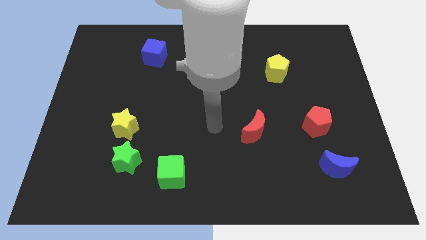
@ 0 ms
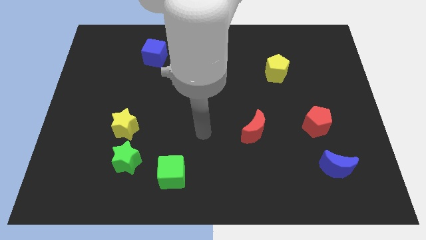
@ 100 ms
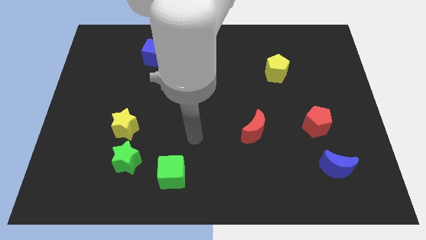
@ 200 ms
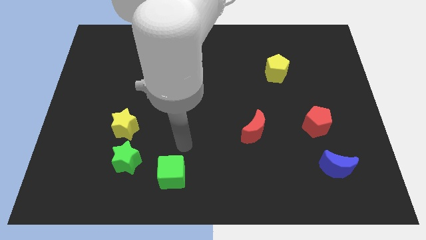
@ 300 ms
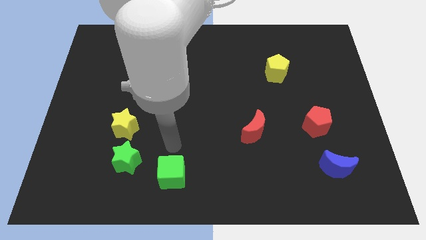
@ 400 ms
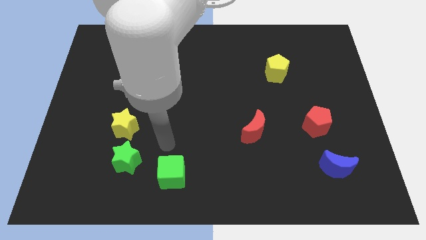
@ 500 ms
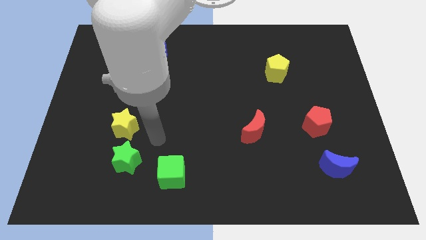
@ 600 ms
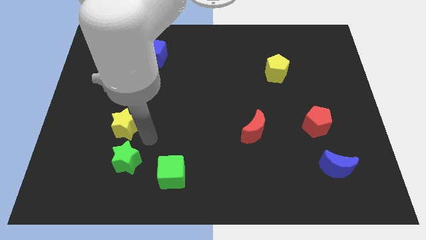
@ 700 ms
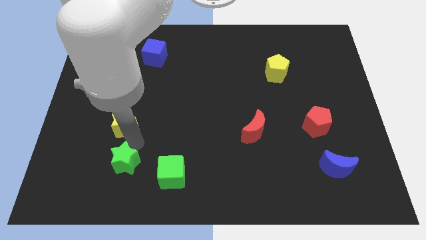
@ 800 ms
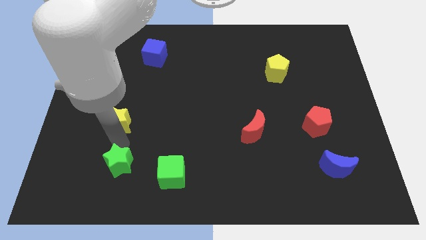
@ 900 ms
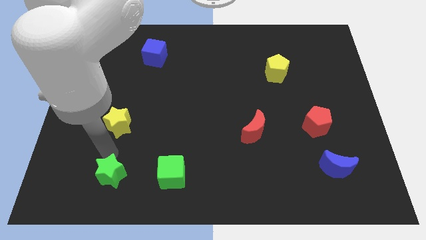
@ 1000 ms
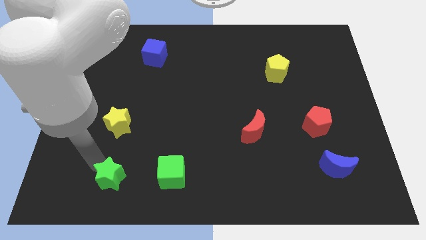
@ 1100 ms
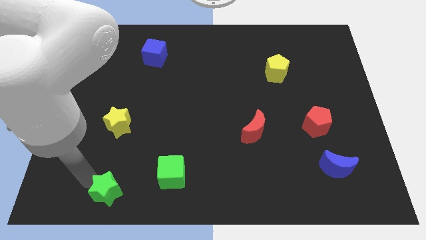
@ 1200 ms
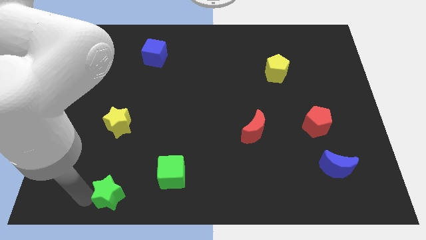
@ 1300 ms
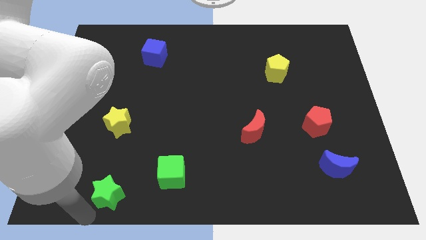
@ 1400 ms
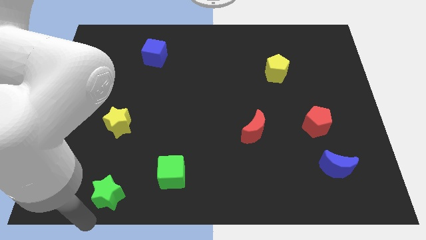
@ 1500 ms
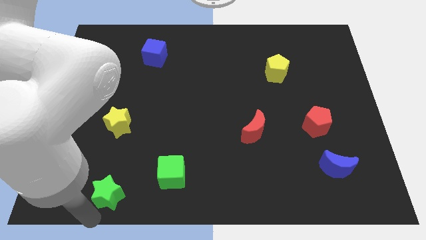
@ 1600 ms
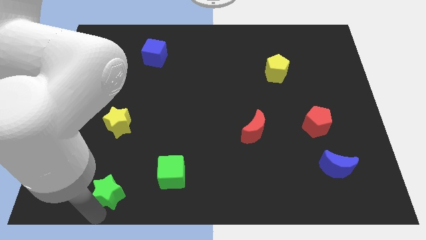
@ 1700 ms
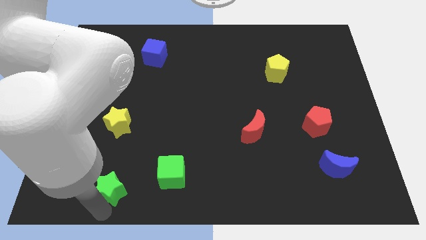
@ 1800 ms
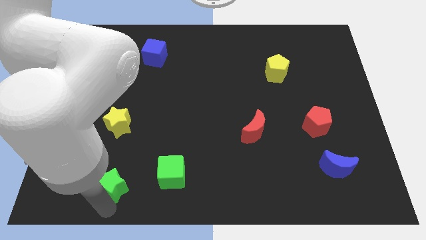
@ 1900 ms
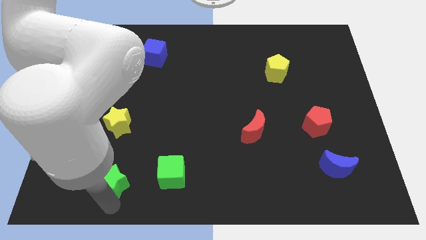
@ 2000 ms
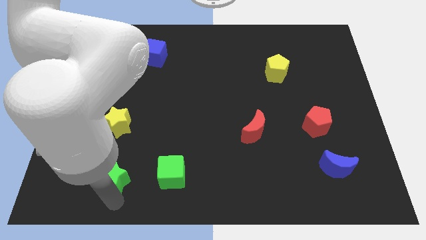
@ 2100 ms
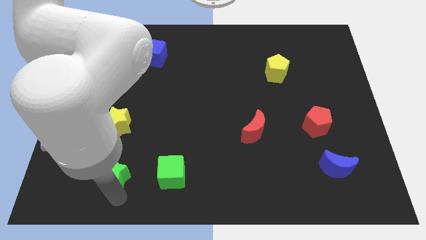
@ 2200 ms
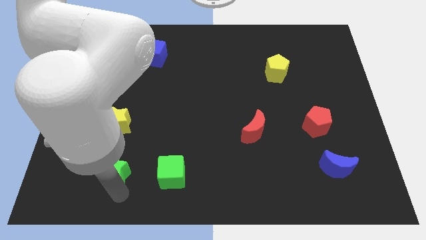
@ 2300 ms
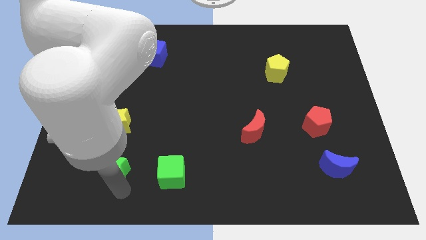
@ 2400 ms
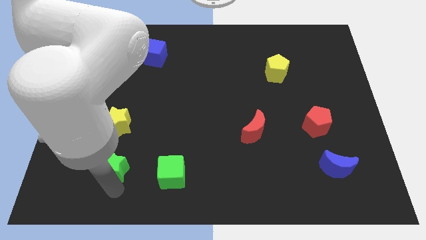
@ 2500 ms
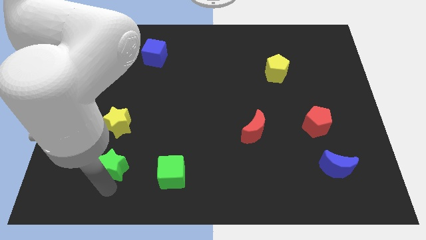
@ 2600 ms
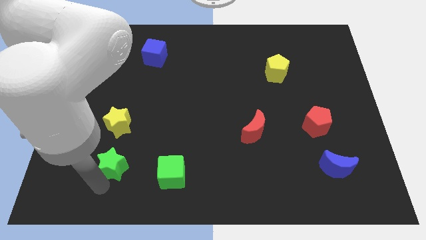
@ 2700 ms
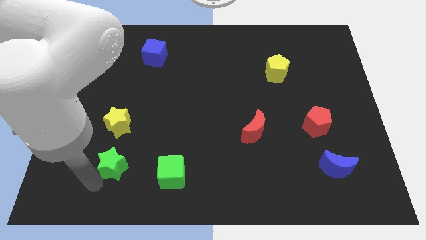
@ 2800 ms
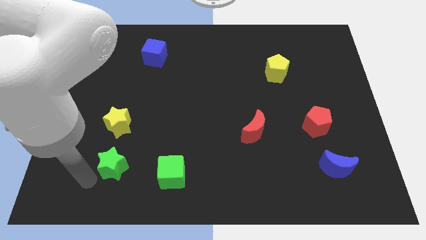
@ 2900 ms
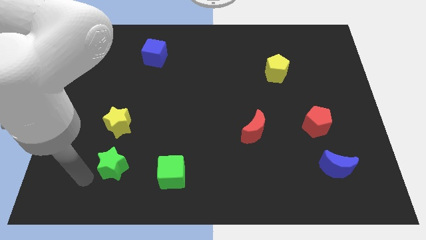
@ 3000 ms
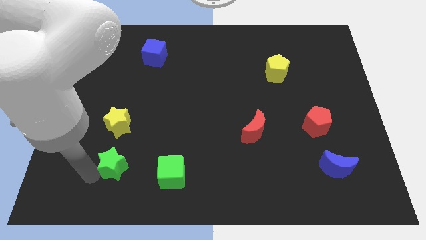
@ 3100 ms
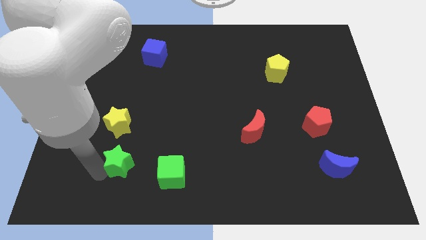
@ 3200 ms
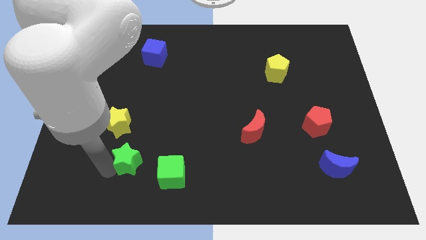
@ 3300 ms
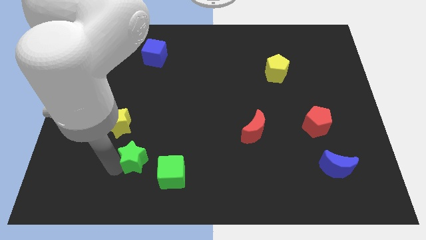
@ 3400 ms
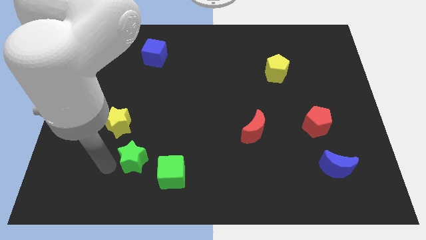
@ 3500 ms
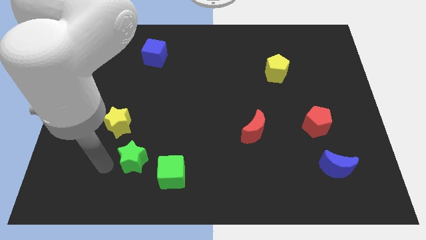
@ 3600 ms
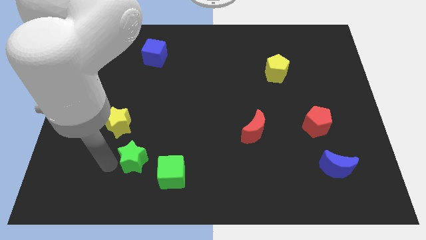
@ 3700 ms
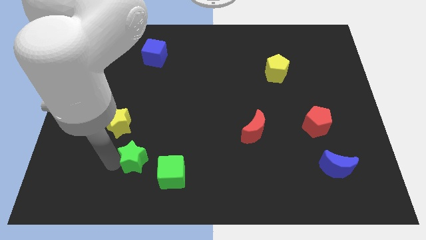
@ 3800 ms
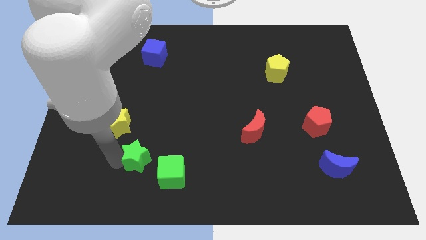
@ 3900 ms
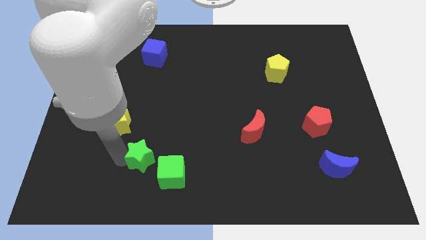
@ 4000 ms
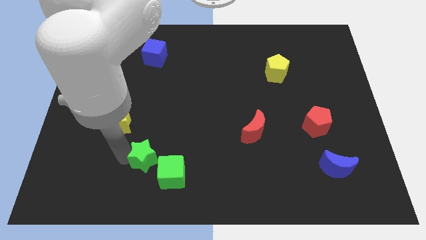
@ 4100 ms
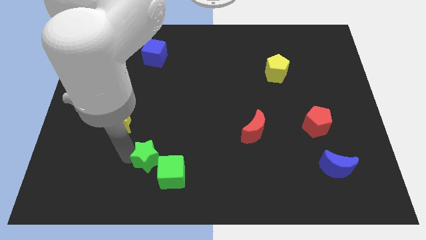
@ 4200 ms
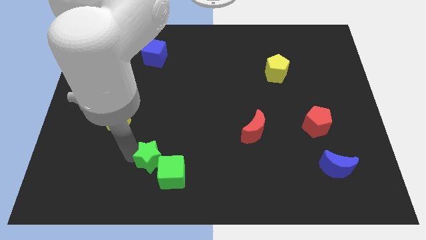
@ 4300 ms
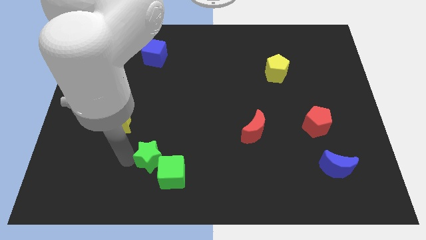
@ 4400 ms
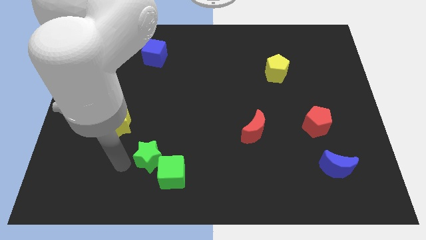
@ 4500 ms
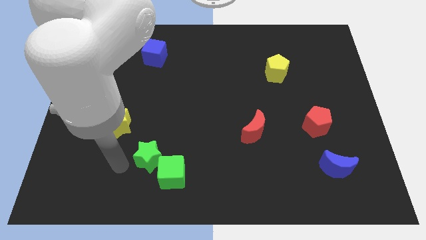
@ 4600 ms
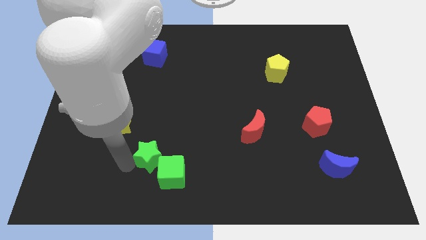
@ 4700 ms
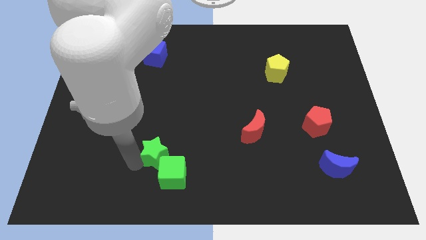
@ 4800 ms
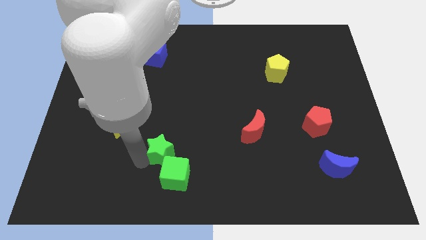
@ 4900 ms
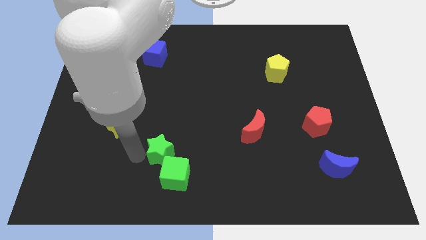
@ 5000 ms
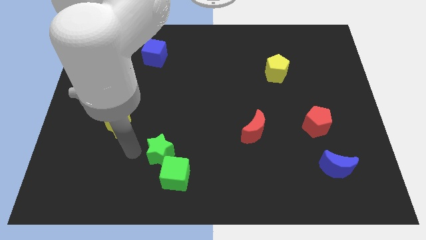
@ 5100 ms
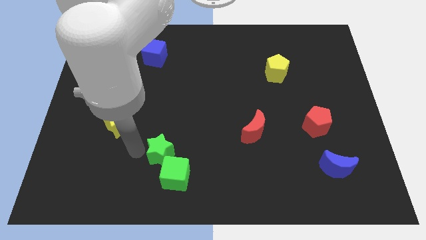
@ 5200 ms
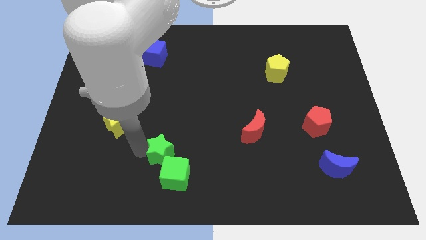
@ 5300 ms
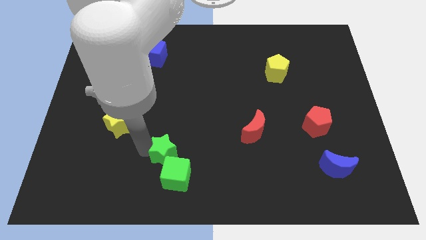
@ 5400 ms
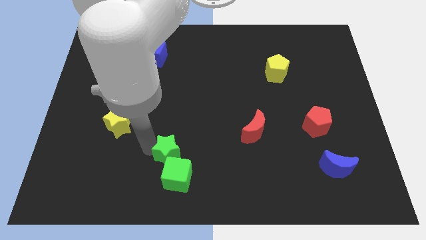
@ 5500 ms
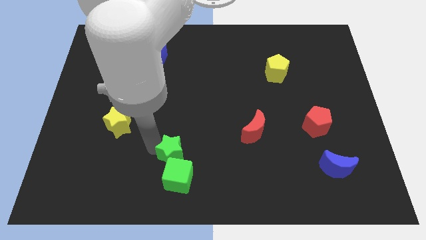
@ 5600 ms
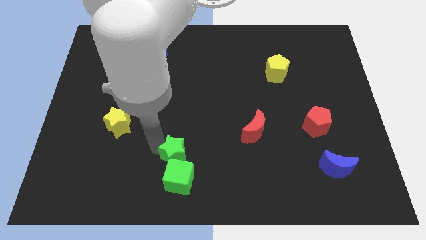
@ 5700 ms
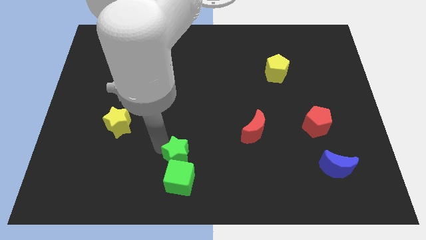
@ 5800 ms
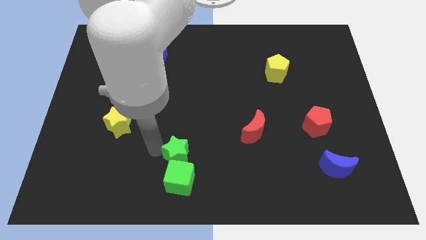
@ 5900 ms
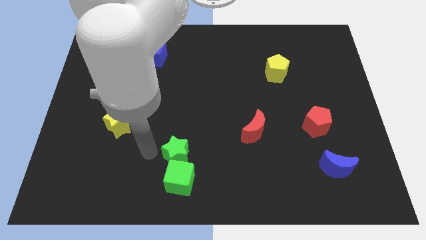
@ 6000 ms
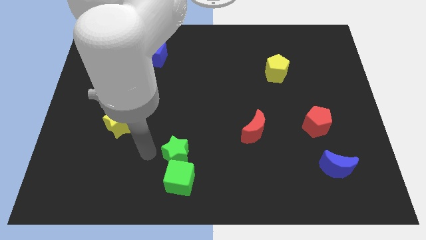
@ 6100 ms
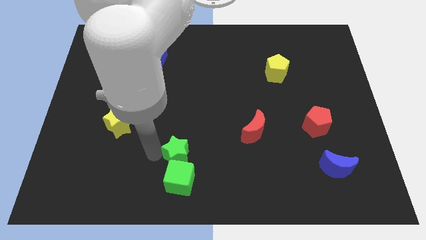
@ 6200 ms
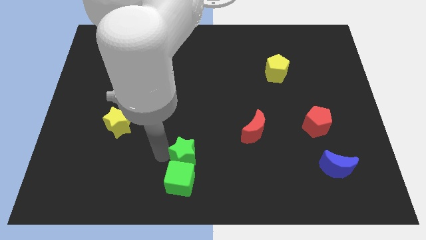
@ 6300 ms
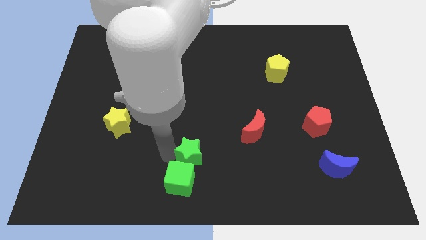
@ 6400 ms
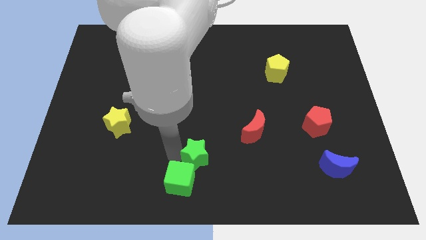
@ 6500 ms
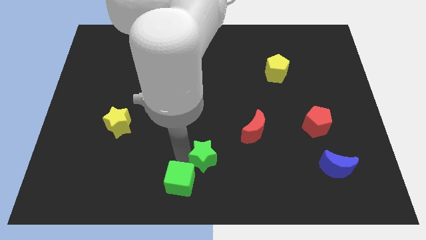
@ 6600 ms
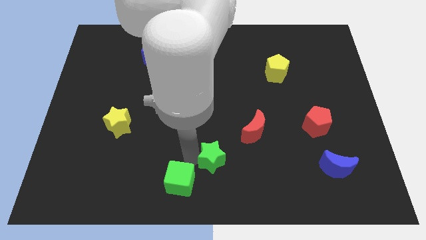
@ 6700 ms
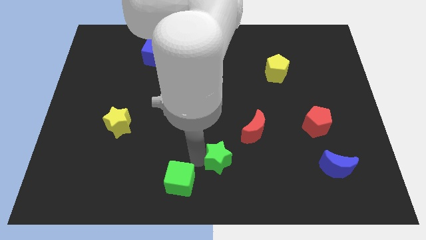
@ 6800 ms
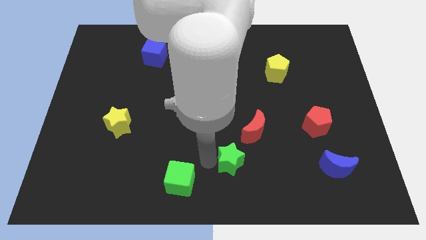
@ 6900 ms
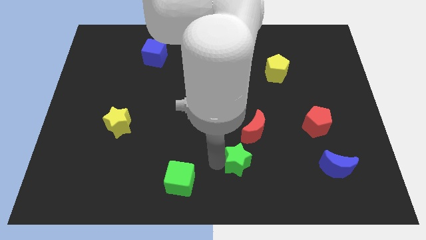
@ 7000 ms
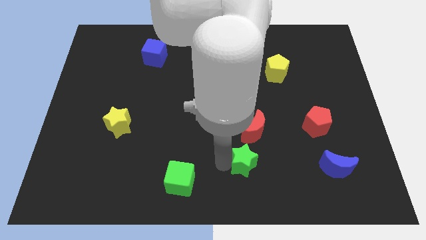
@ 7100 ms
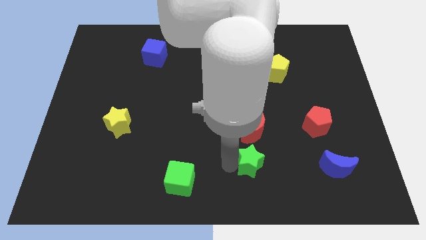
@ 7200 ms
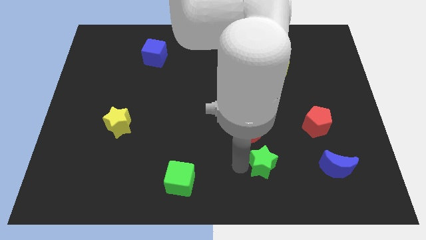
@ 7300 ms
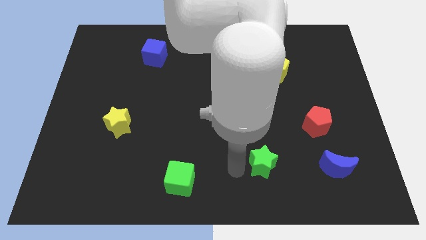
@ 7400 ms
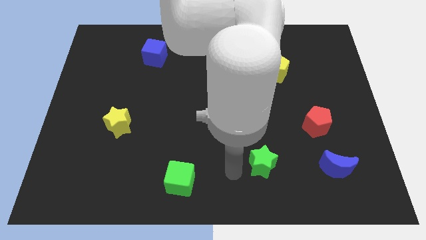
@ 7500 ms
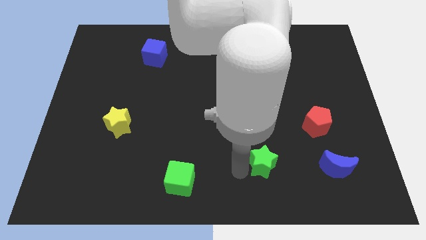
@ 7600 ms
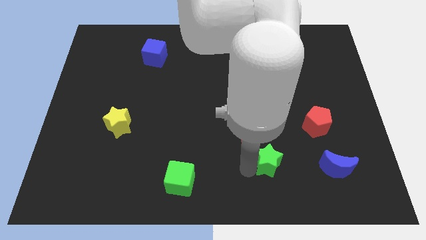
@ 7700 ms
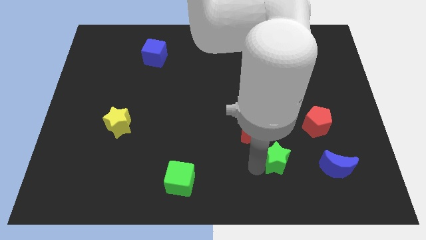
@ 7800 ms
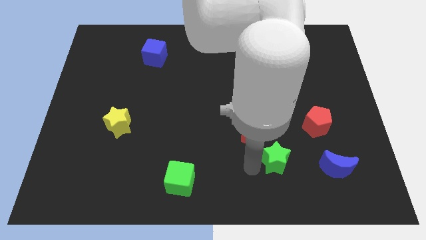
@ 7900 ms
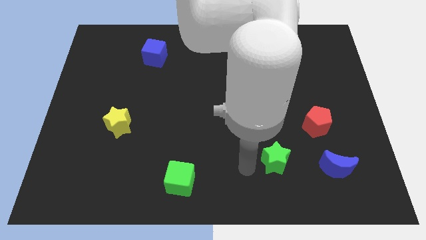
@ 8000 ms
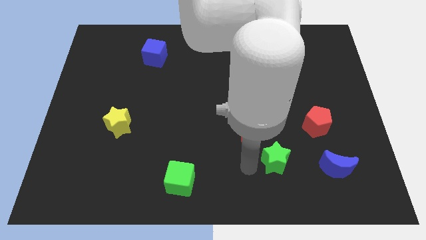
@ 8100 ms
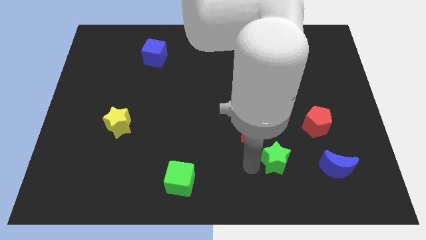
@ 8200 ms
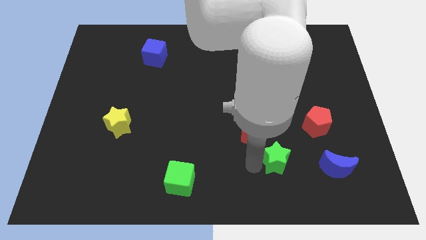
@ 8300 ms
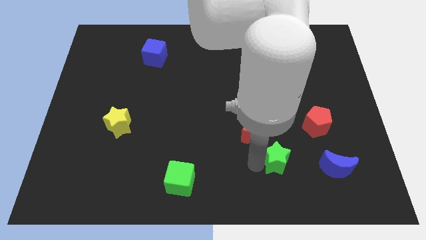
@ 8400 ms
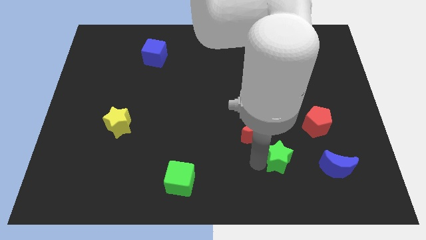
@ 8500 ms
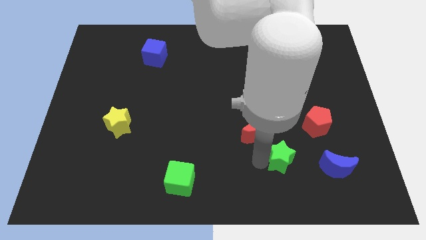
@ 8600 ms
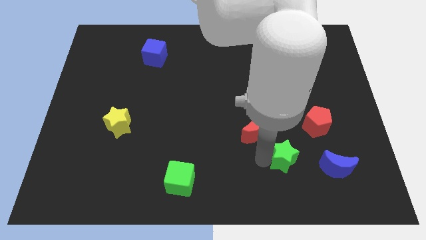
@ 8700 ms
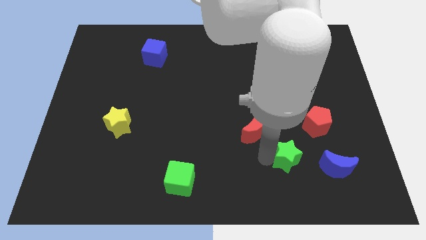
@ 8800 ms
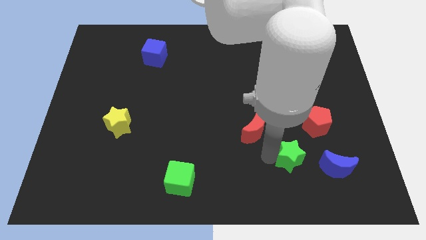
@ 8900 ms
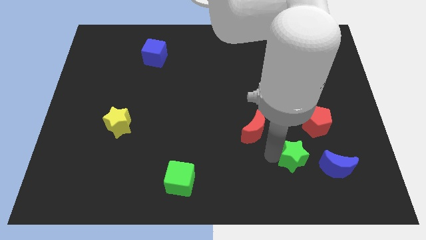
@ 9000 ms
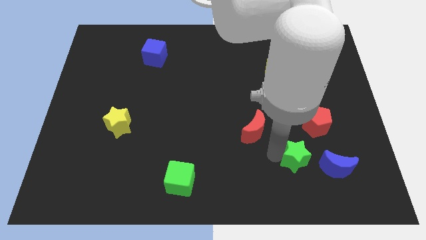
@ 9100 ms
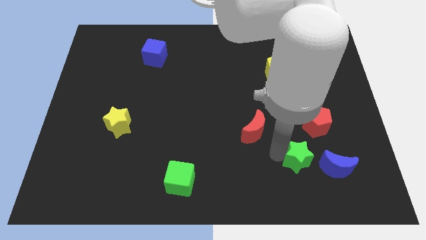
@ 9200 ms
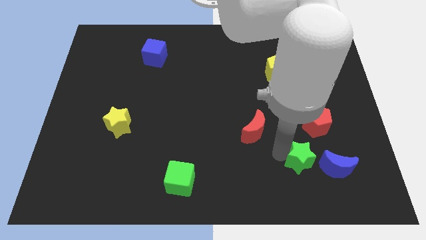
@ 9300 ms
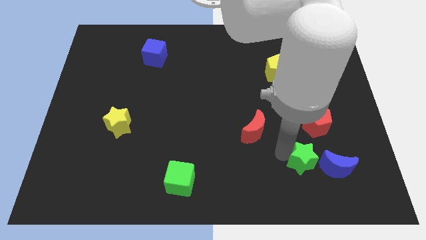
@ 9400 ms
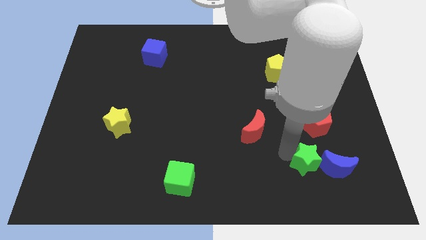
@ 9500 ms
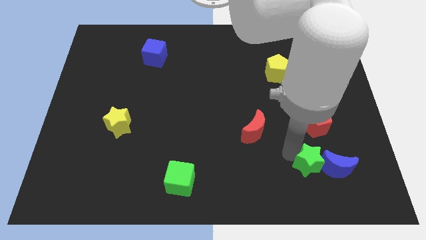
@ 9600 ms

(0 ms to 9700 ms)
put the green star to the blue moon
